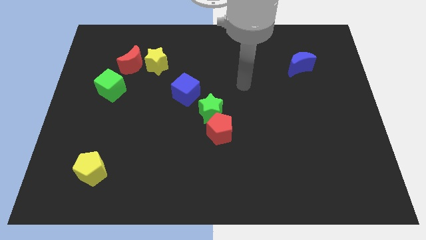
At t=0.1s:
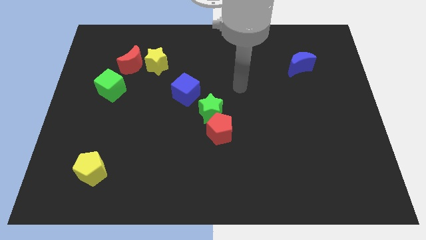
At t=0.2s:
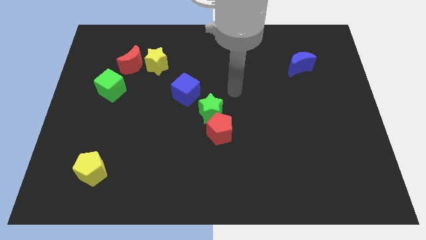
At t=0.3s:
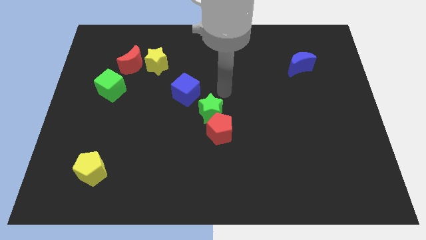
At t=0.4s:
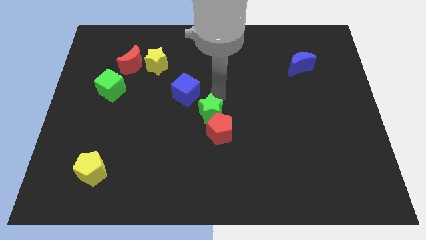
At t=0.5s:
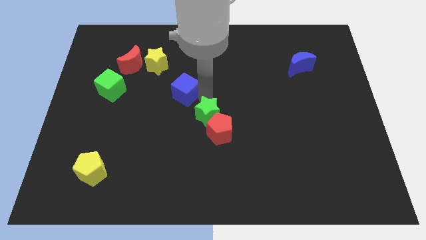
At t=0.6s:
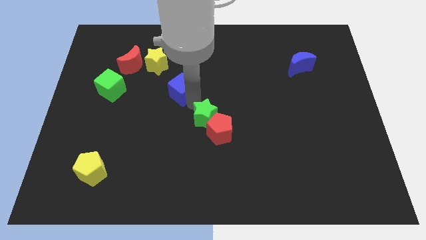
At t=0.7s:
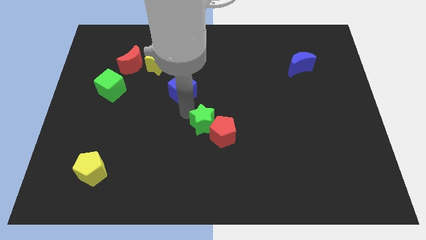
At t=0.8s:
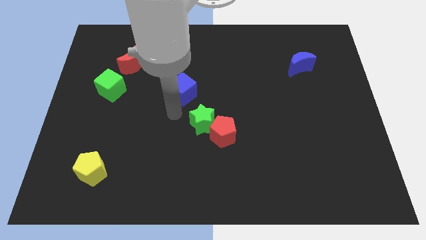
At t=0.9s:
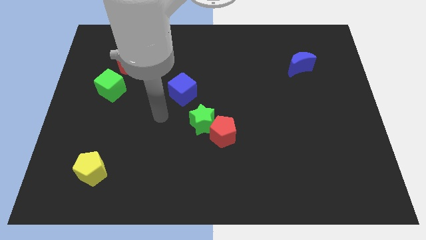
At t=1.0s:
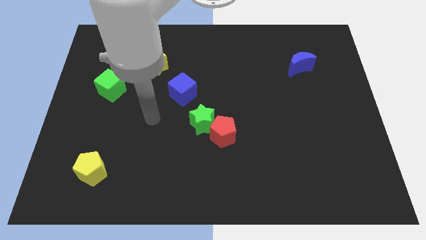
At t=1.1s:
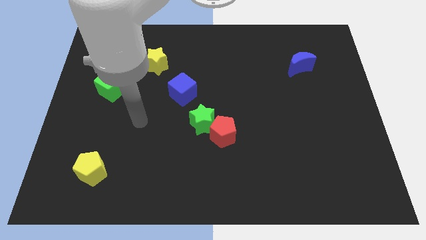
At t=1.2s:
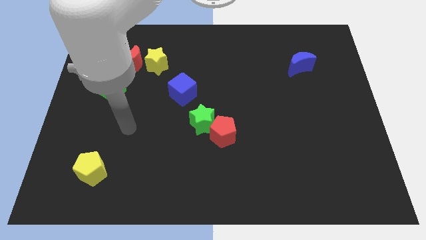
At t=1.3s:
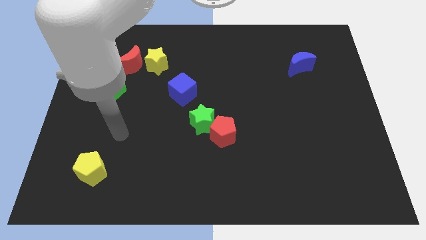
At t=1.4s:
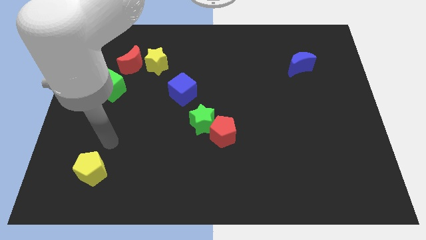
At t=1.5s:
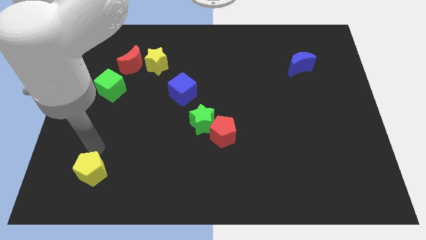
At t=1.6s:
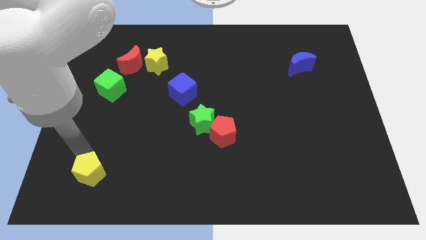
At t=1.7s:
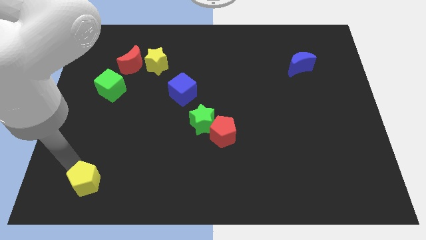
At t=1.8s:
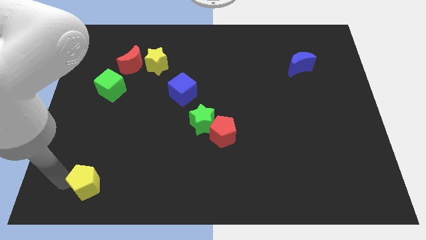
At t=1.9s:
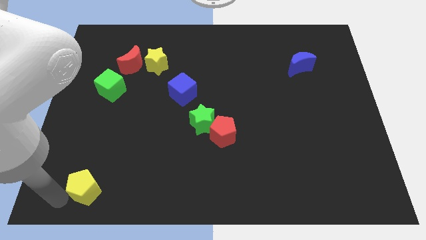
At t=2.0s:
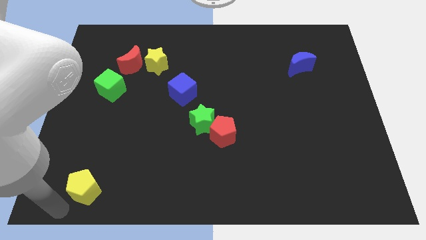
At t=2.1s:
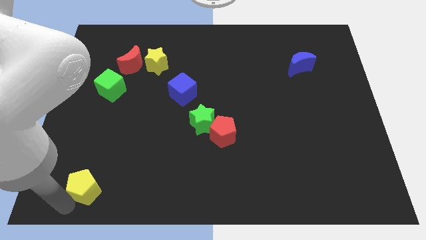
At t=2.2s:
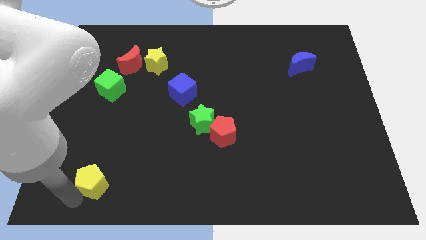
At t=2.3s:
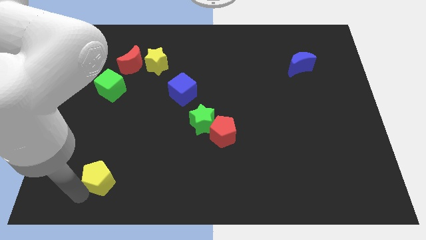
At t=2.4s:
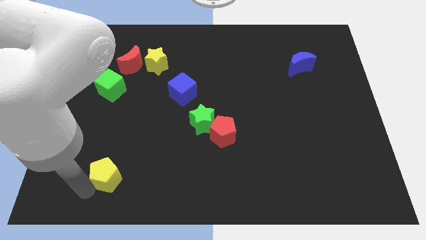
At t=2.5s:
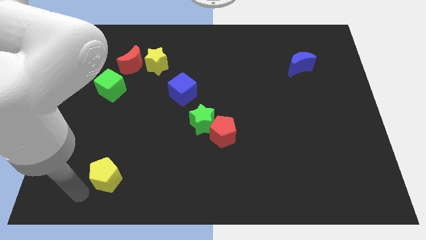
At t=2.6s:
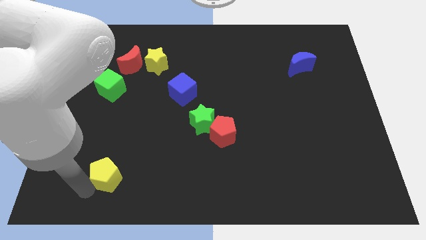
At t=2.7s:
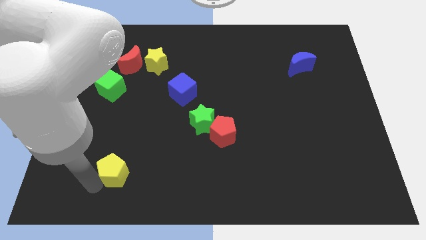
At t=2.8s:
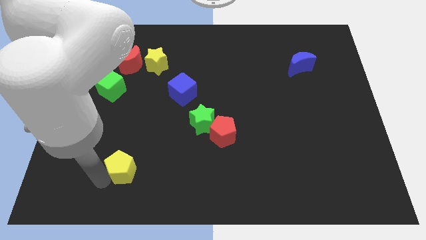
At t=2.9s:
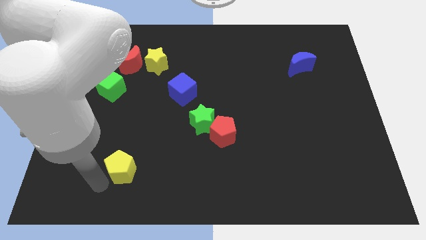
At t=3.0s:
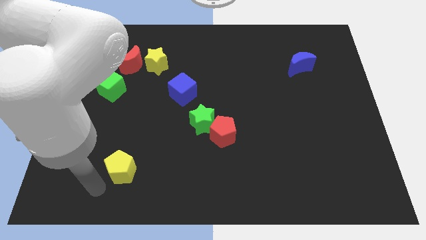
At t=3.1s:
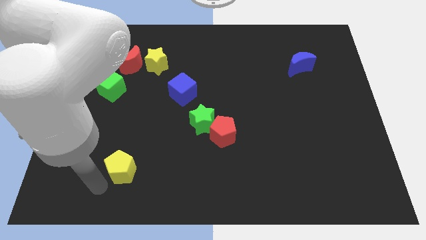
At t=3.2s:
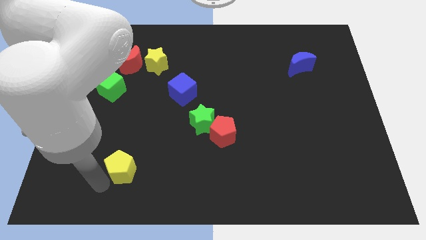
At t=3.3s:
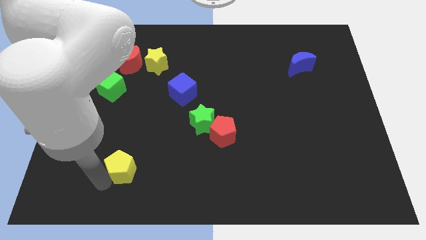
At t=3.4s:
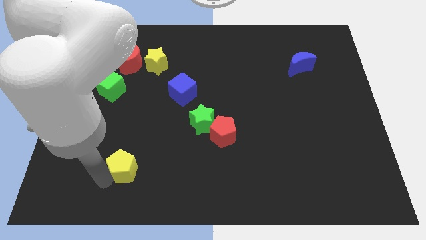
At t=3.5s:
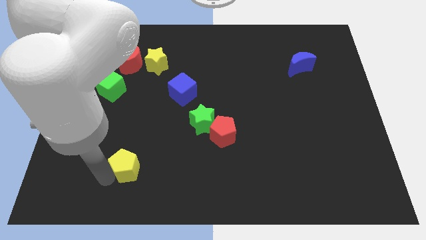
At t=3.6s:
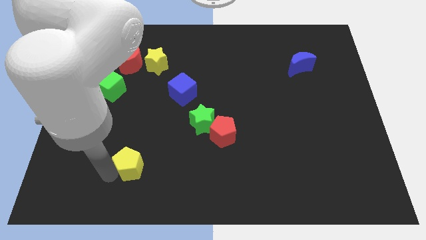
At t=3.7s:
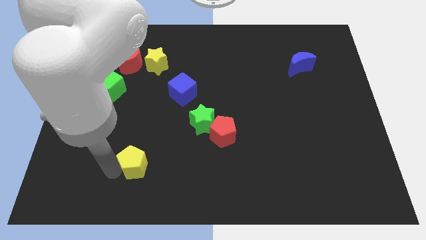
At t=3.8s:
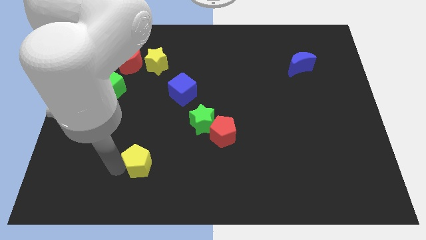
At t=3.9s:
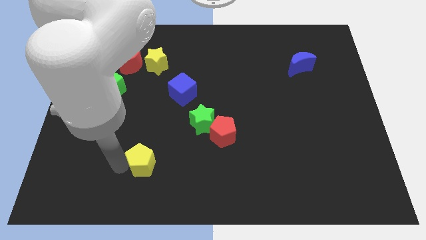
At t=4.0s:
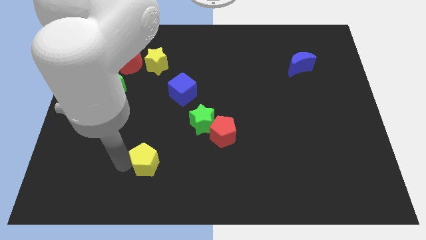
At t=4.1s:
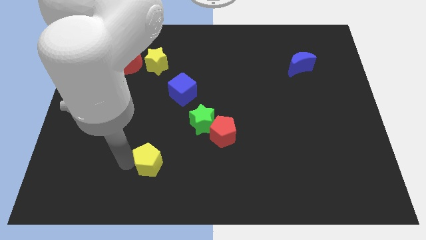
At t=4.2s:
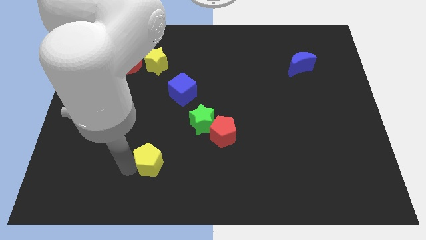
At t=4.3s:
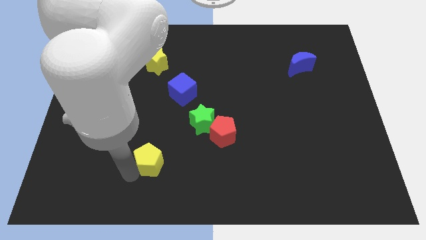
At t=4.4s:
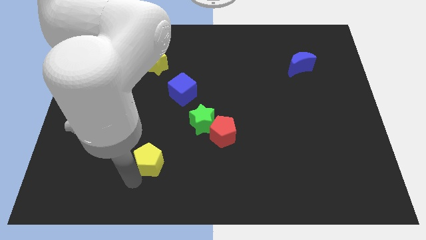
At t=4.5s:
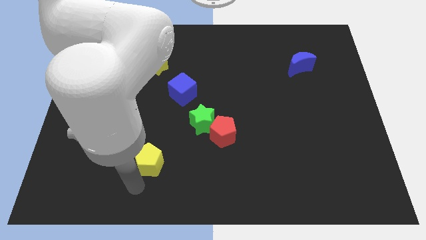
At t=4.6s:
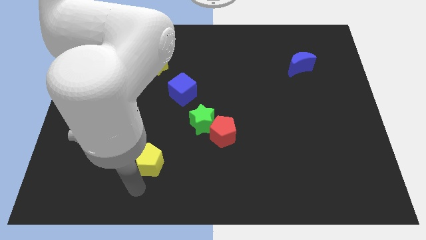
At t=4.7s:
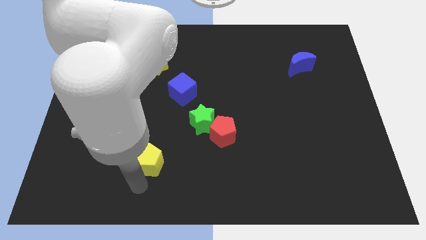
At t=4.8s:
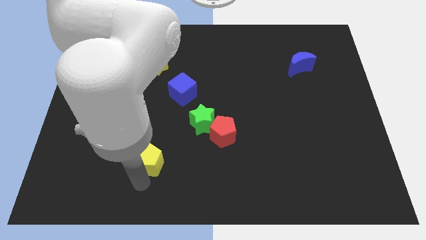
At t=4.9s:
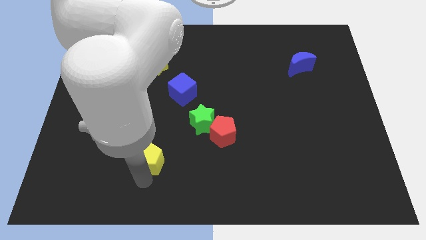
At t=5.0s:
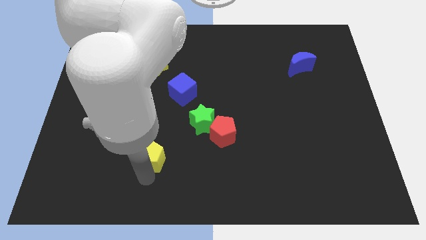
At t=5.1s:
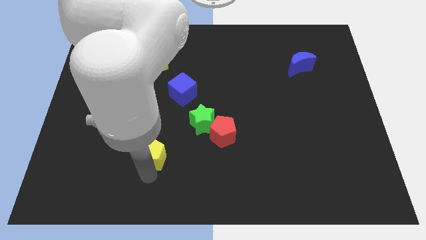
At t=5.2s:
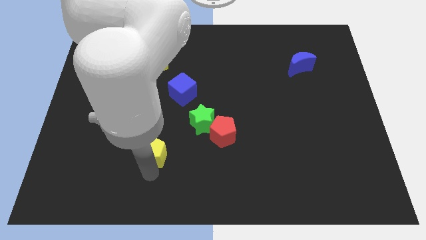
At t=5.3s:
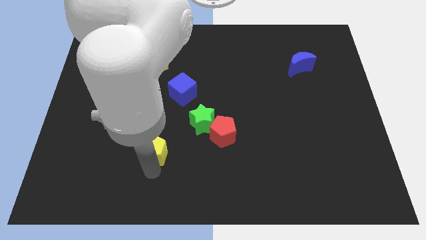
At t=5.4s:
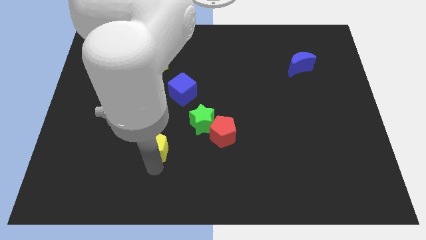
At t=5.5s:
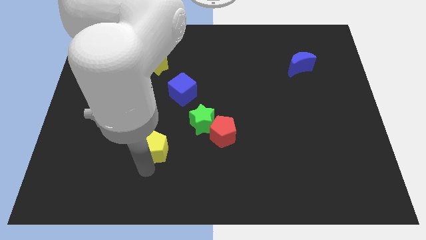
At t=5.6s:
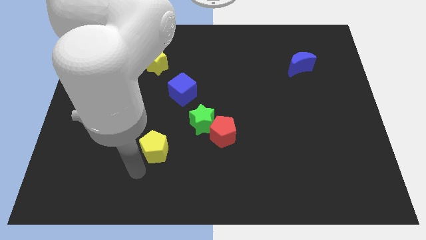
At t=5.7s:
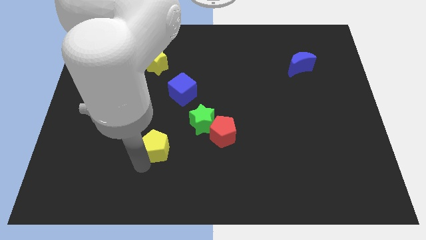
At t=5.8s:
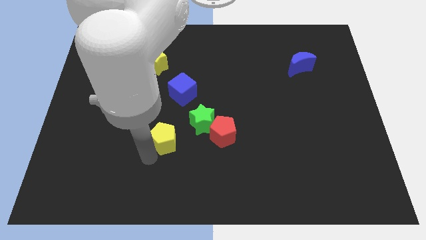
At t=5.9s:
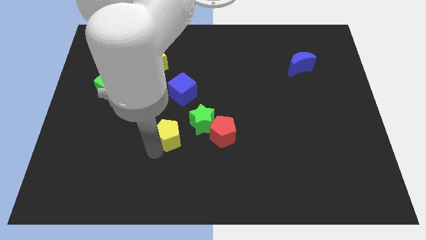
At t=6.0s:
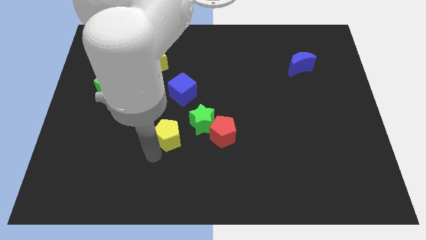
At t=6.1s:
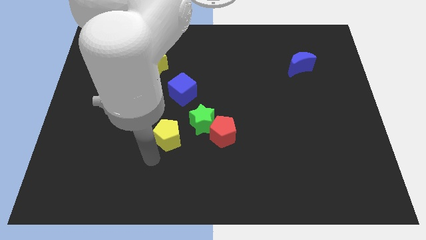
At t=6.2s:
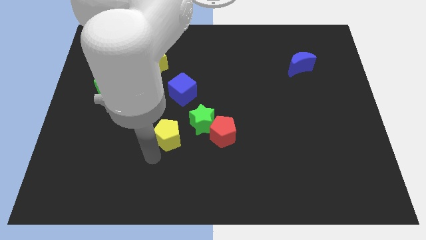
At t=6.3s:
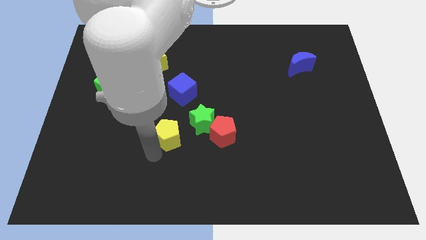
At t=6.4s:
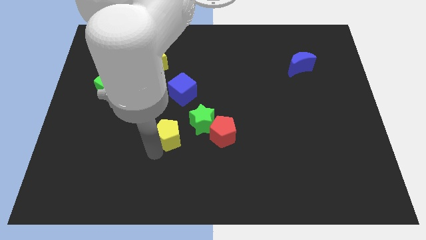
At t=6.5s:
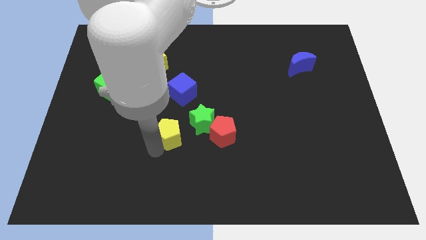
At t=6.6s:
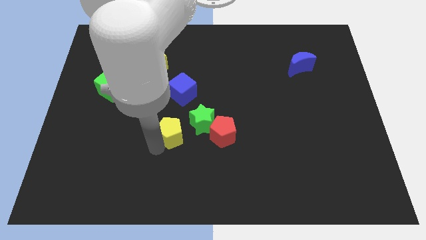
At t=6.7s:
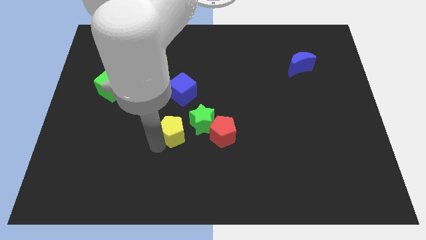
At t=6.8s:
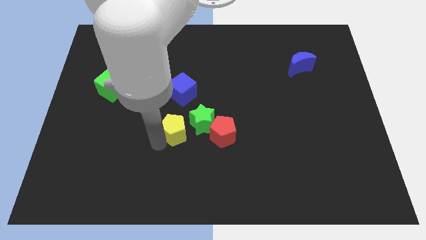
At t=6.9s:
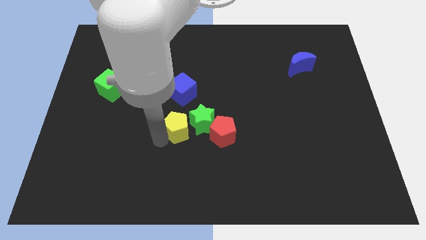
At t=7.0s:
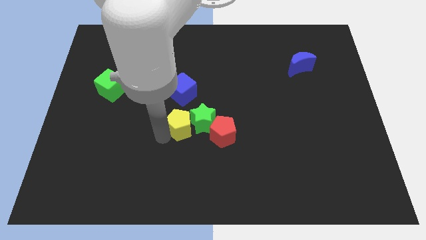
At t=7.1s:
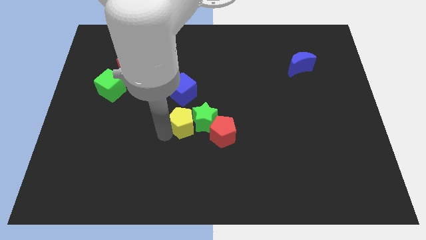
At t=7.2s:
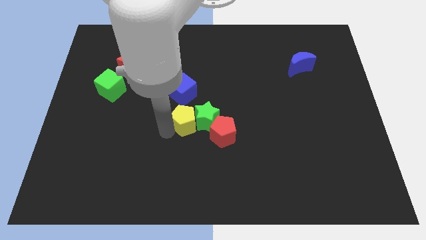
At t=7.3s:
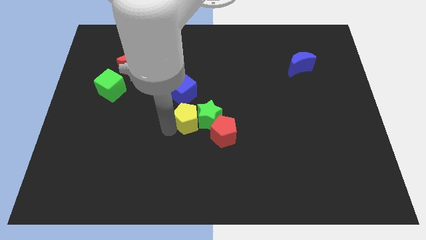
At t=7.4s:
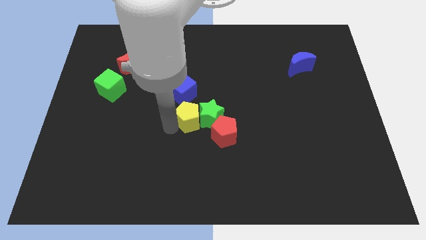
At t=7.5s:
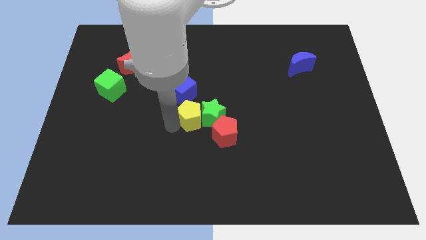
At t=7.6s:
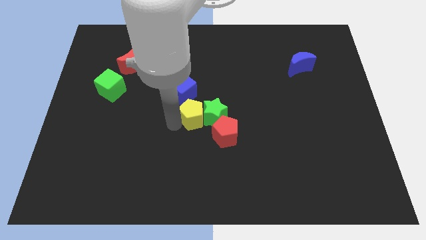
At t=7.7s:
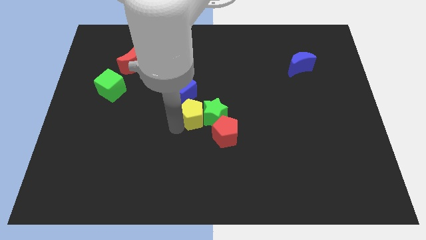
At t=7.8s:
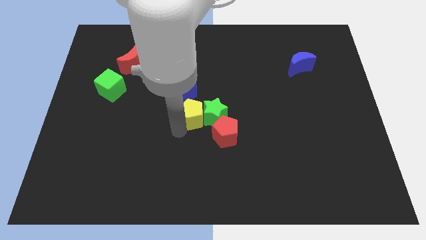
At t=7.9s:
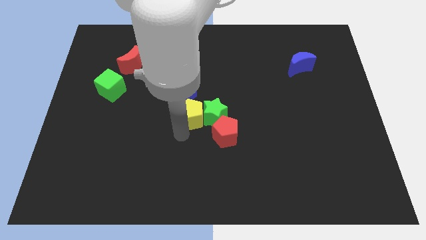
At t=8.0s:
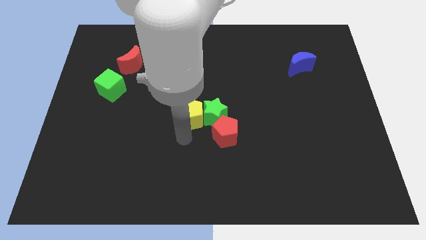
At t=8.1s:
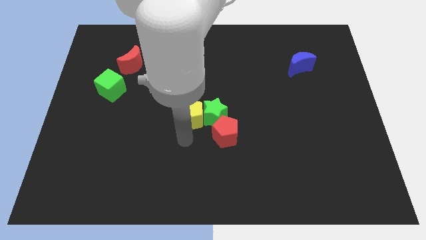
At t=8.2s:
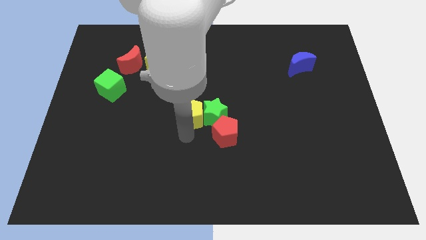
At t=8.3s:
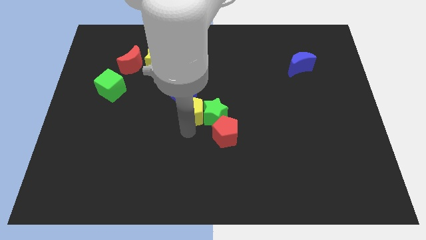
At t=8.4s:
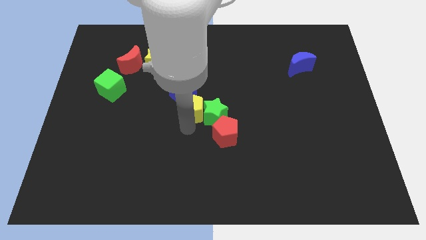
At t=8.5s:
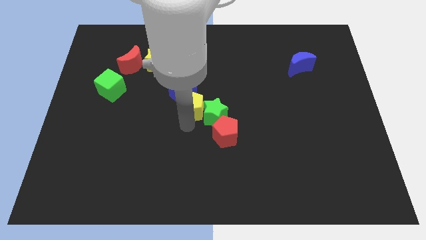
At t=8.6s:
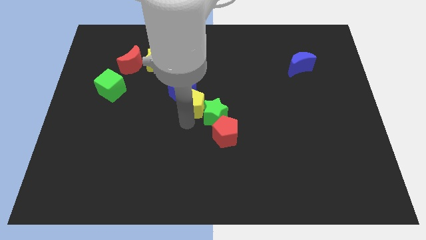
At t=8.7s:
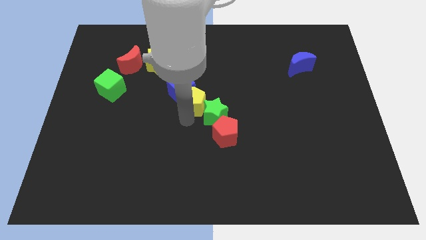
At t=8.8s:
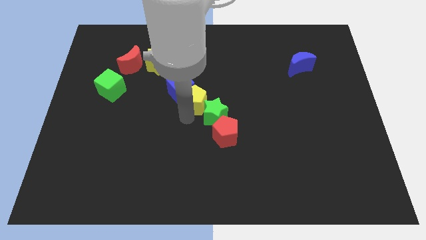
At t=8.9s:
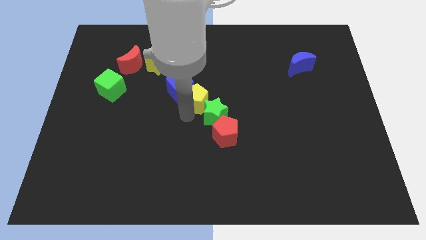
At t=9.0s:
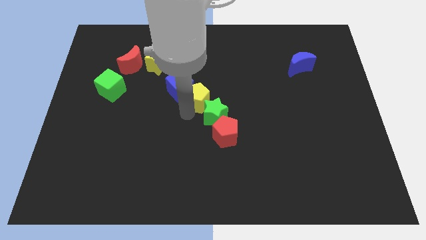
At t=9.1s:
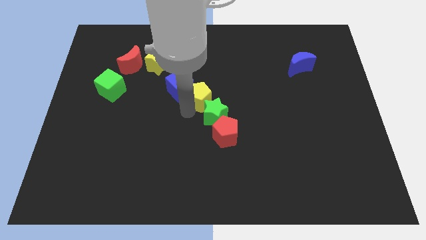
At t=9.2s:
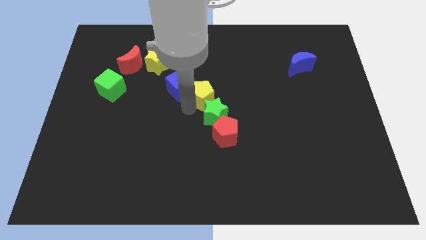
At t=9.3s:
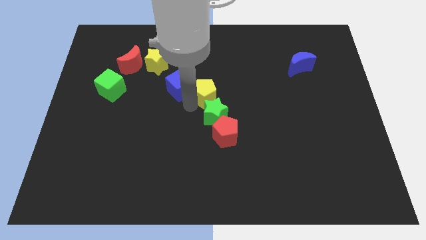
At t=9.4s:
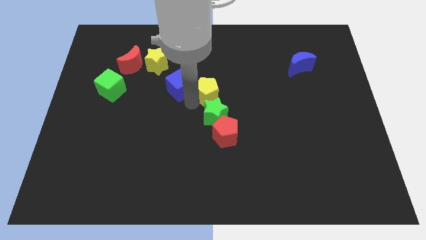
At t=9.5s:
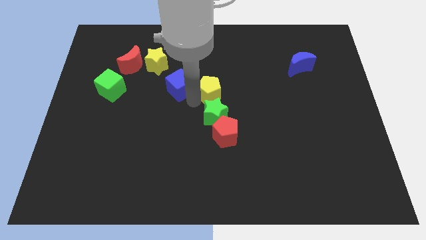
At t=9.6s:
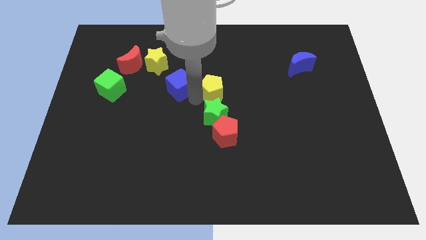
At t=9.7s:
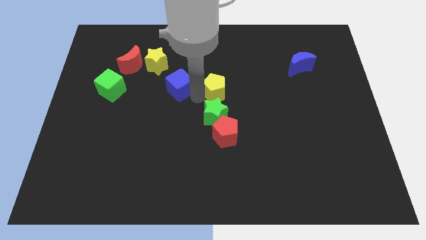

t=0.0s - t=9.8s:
slide the yellow pentagon to the top right side of the green star
